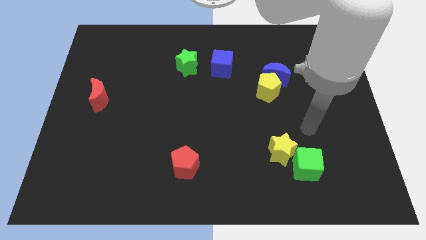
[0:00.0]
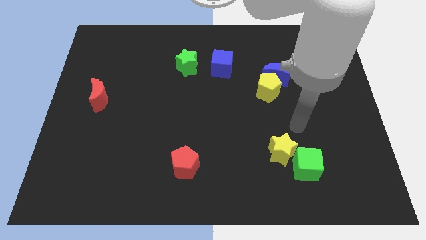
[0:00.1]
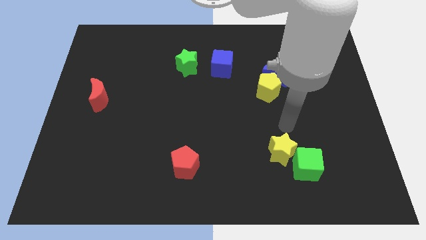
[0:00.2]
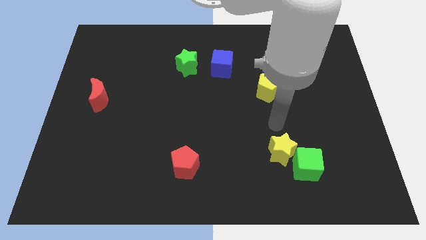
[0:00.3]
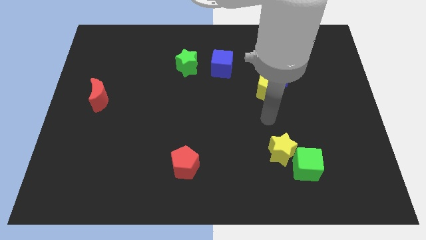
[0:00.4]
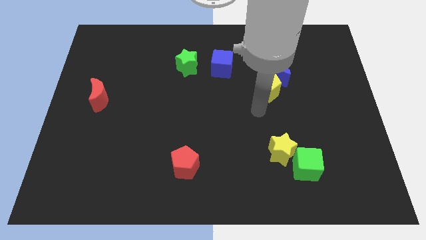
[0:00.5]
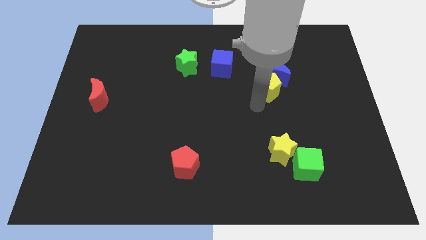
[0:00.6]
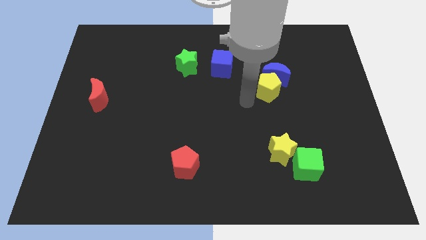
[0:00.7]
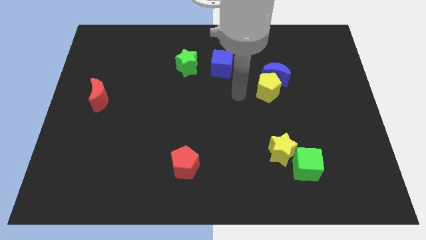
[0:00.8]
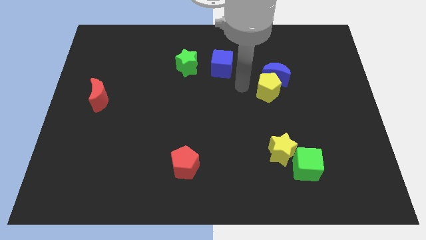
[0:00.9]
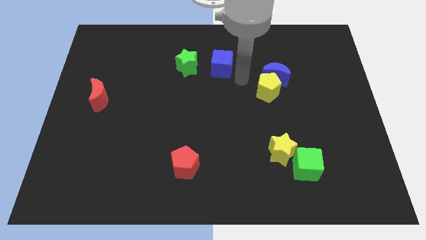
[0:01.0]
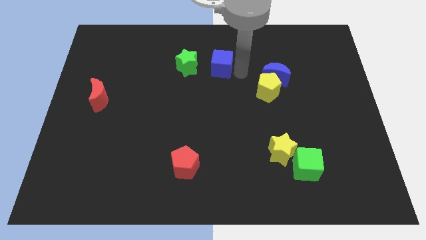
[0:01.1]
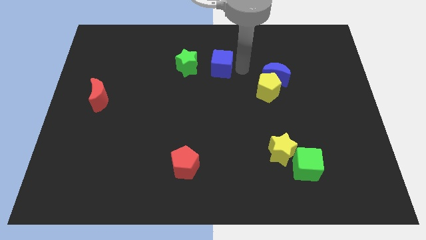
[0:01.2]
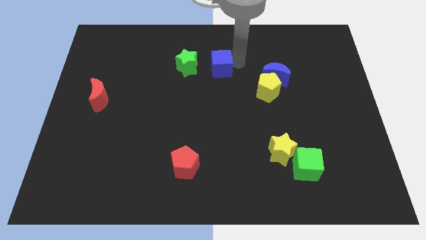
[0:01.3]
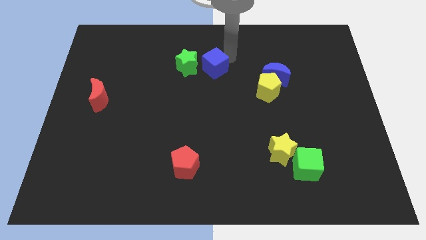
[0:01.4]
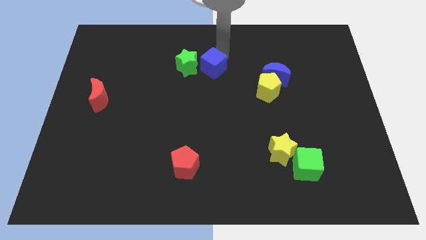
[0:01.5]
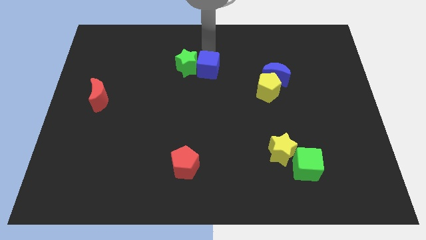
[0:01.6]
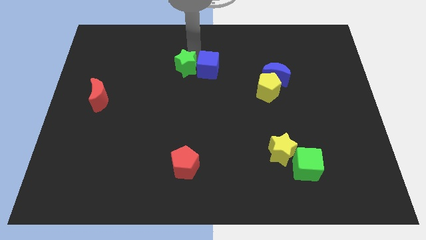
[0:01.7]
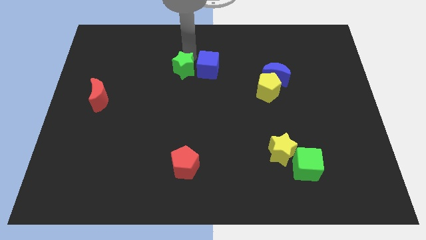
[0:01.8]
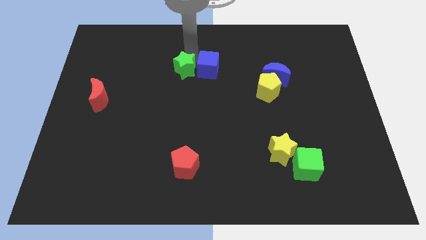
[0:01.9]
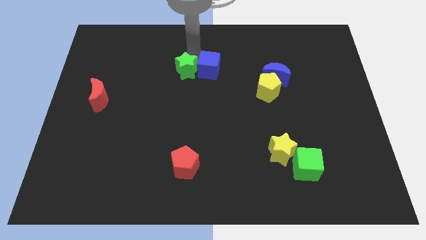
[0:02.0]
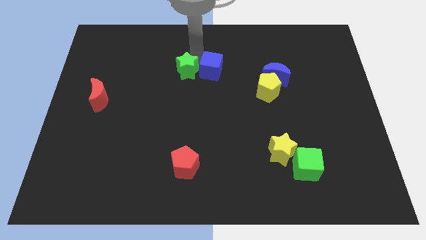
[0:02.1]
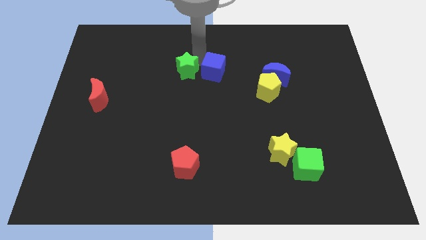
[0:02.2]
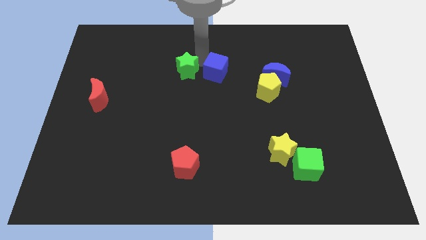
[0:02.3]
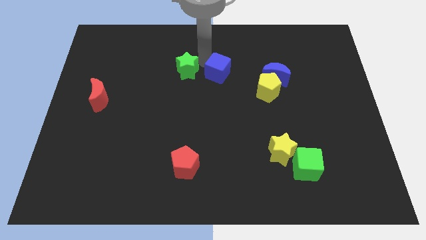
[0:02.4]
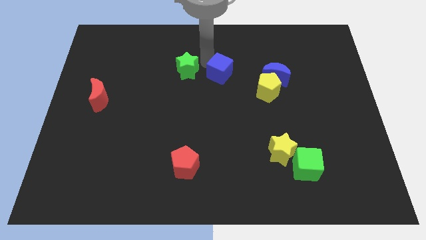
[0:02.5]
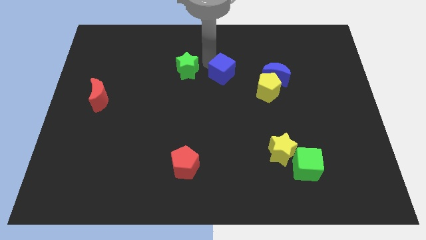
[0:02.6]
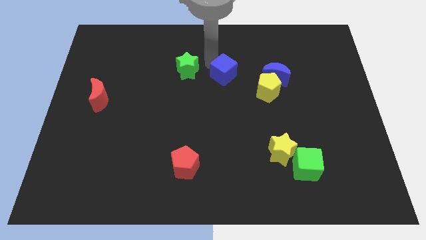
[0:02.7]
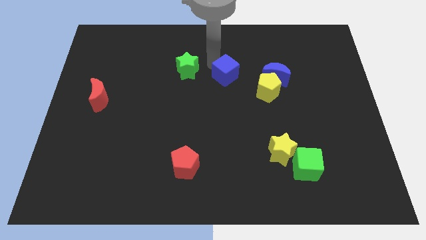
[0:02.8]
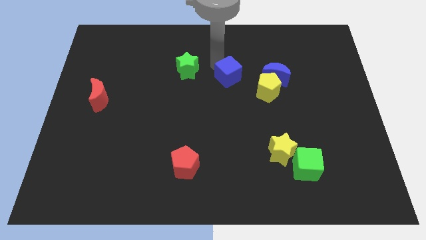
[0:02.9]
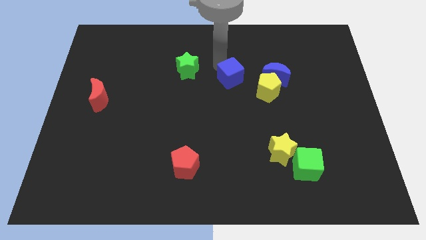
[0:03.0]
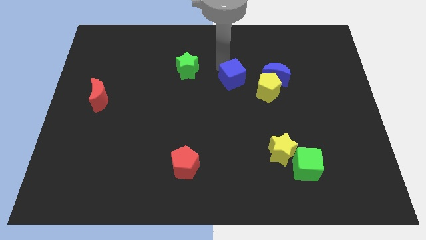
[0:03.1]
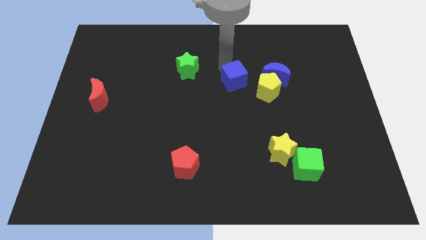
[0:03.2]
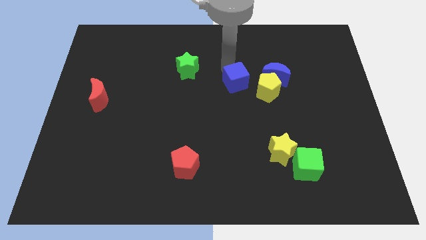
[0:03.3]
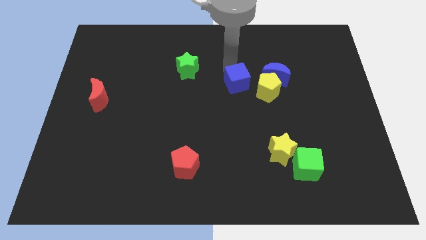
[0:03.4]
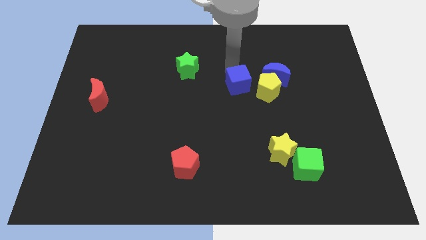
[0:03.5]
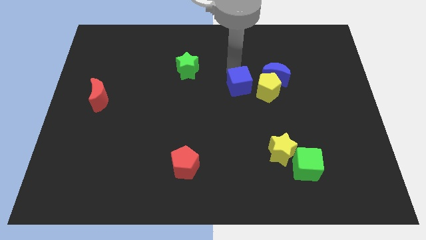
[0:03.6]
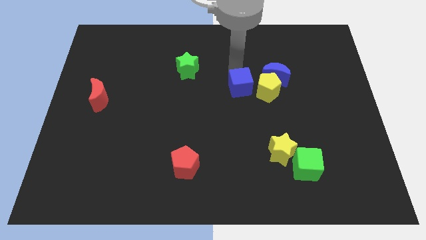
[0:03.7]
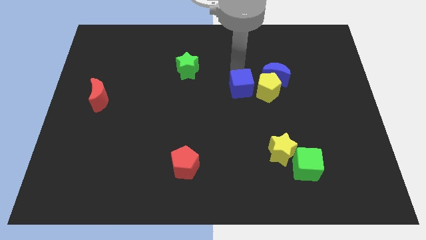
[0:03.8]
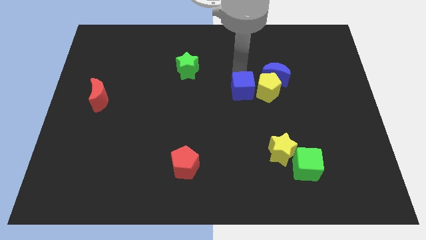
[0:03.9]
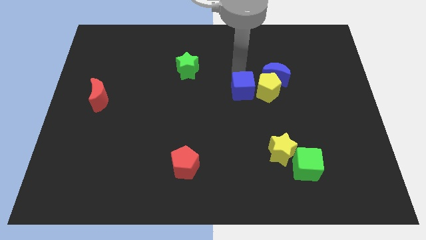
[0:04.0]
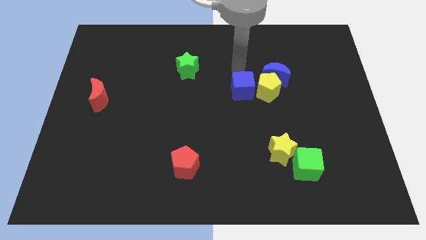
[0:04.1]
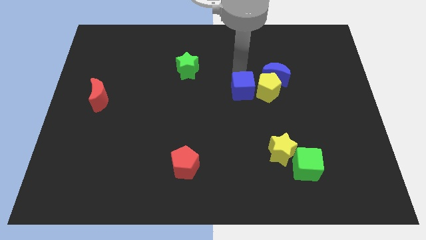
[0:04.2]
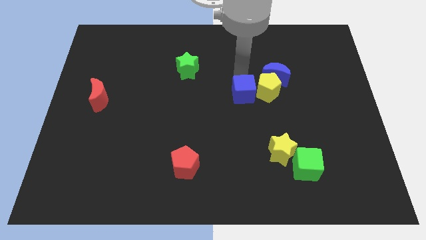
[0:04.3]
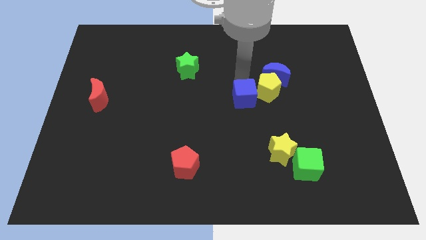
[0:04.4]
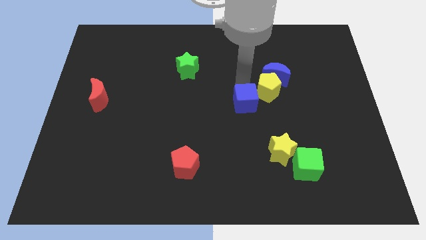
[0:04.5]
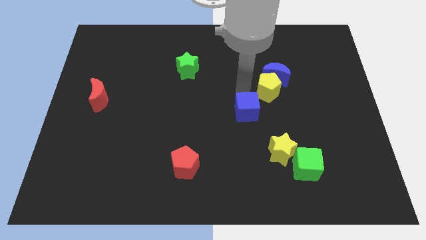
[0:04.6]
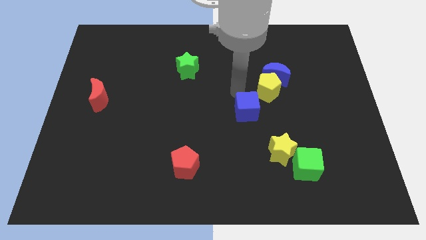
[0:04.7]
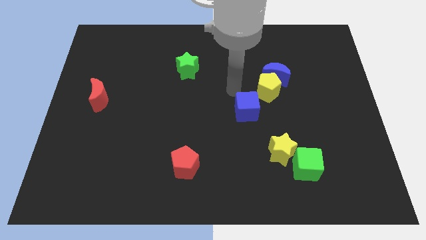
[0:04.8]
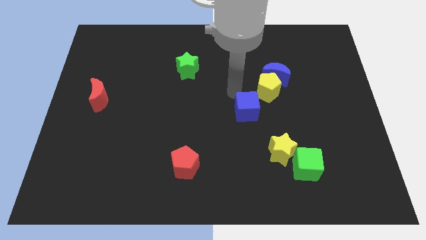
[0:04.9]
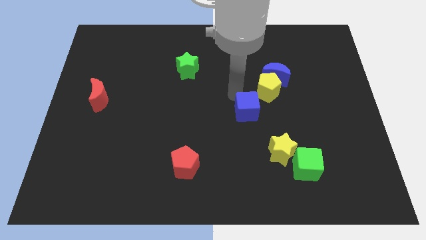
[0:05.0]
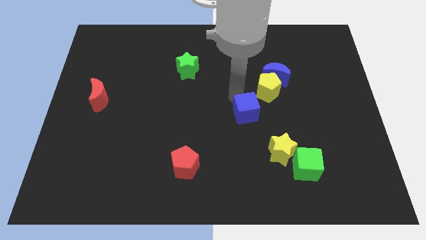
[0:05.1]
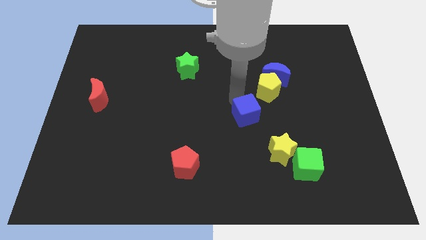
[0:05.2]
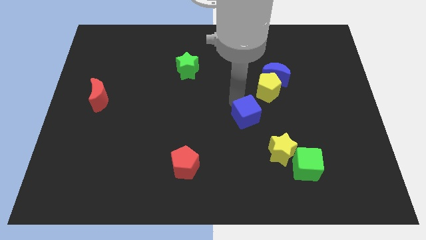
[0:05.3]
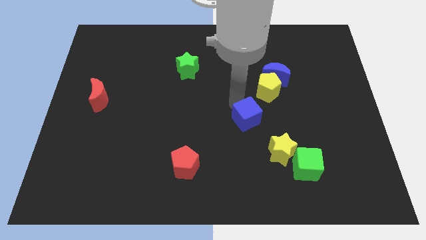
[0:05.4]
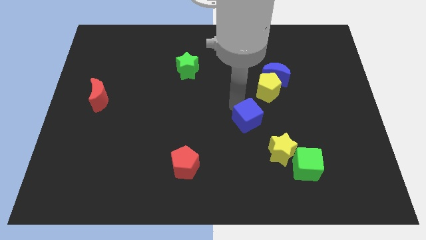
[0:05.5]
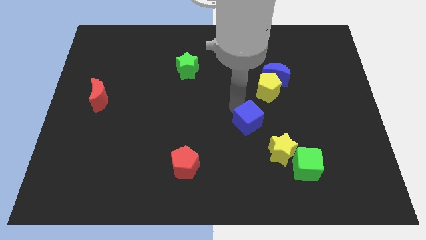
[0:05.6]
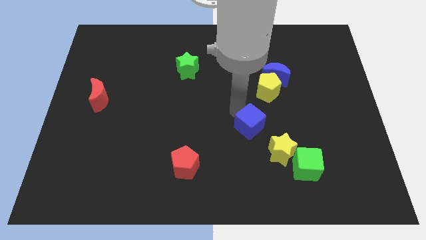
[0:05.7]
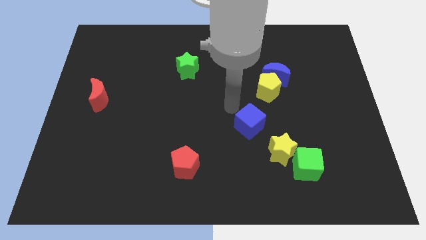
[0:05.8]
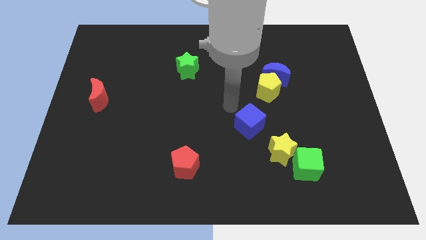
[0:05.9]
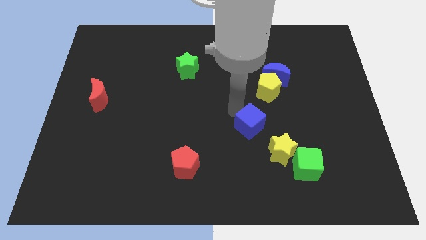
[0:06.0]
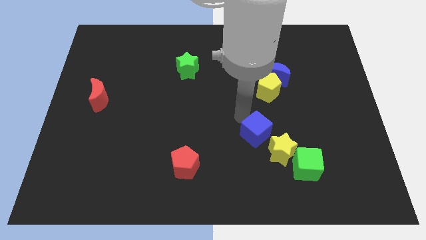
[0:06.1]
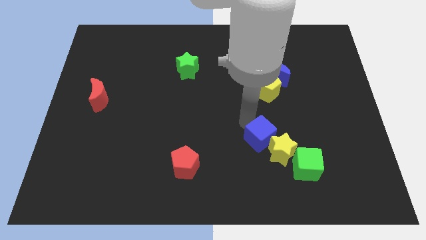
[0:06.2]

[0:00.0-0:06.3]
move the blue cube to the yellow star
